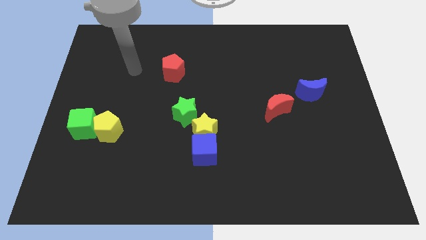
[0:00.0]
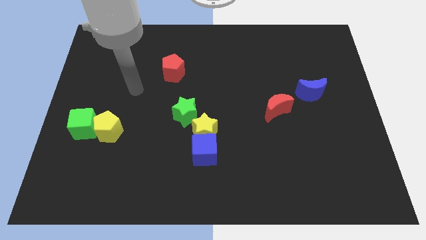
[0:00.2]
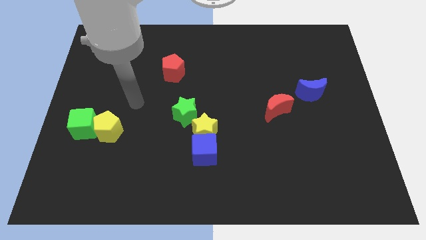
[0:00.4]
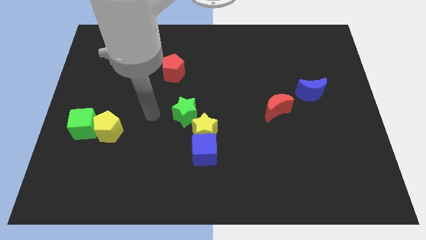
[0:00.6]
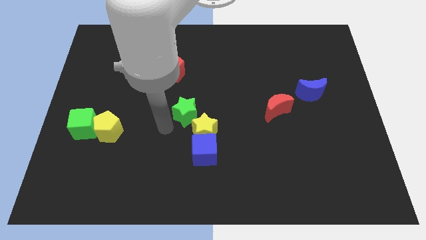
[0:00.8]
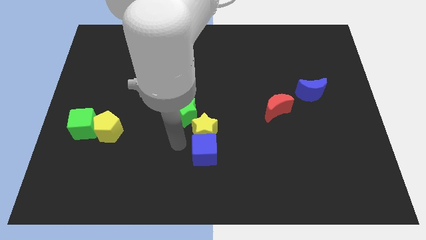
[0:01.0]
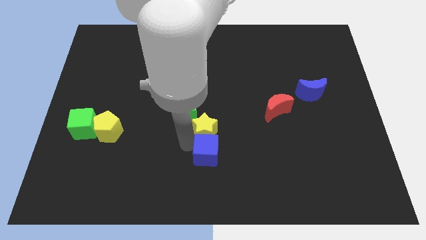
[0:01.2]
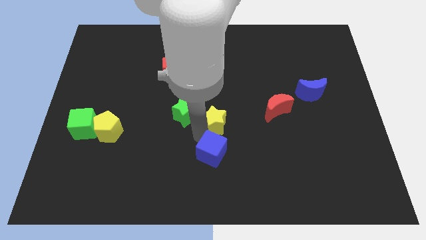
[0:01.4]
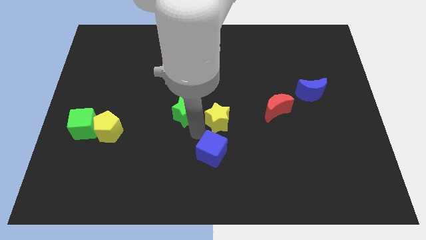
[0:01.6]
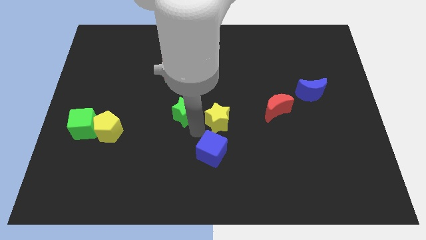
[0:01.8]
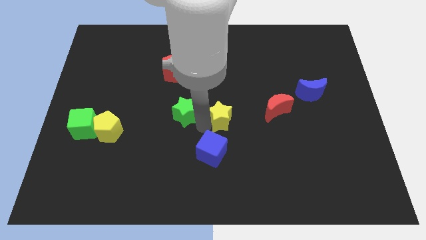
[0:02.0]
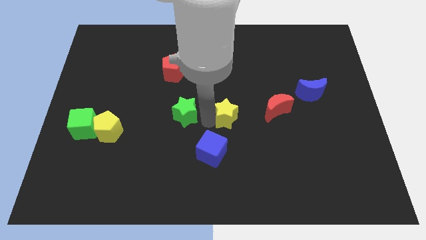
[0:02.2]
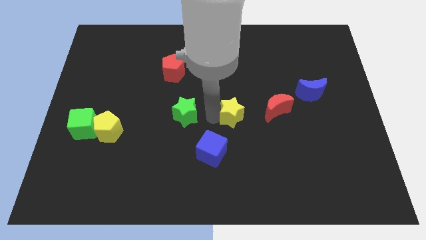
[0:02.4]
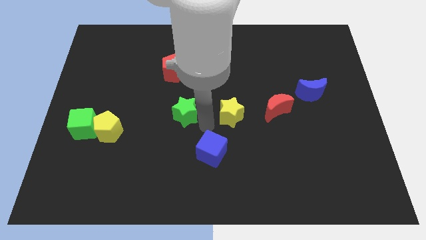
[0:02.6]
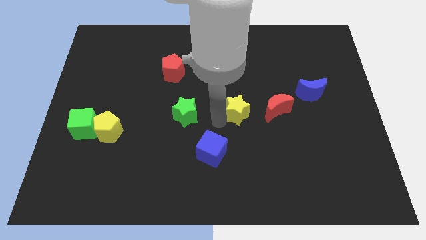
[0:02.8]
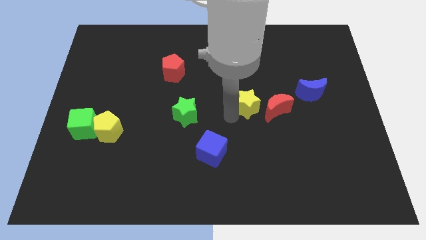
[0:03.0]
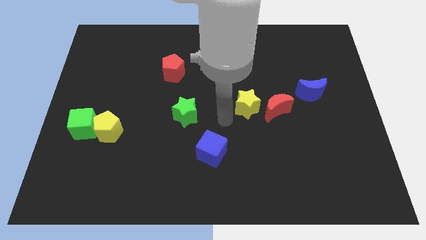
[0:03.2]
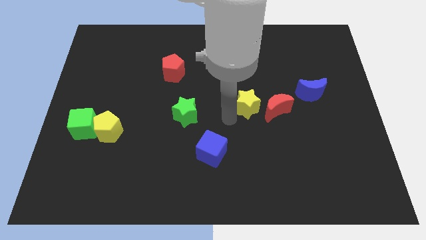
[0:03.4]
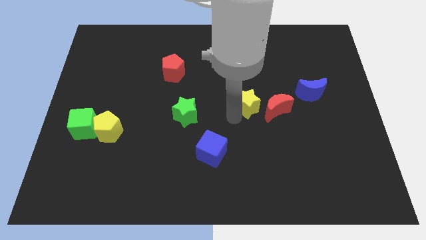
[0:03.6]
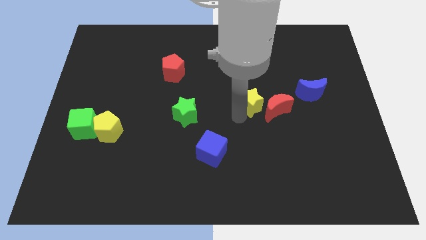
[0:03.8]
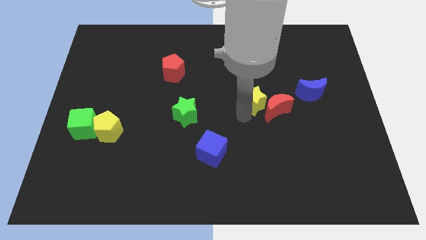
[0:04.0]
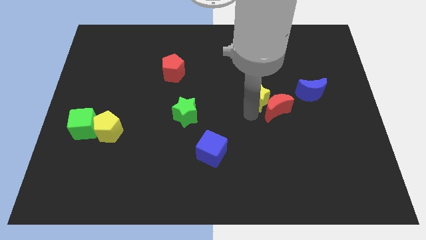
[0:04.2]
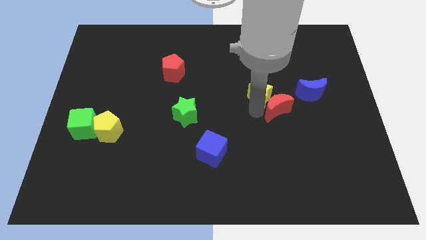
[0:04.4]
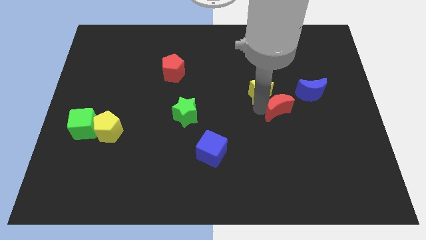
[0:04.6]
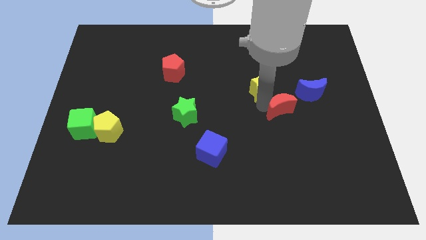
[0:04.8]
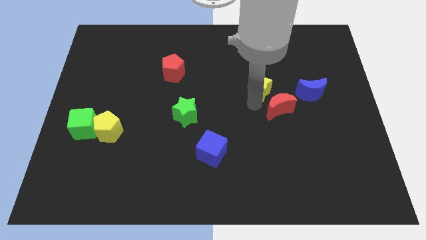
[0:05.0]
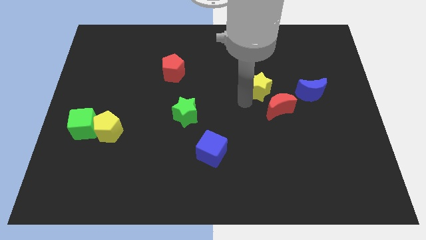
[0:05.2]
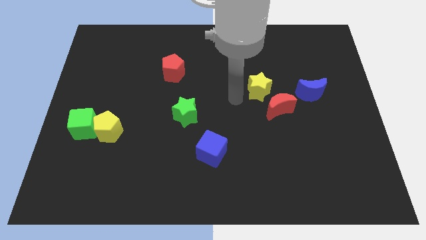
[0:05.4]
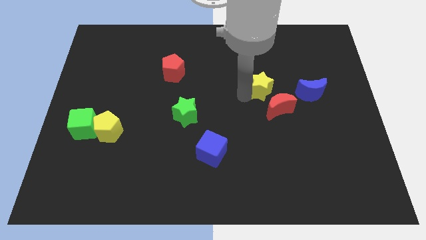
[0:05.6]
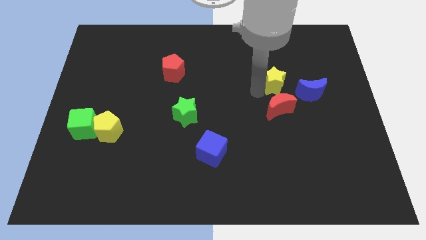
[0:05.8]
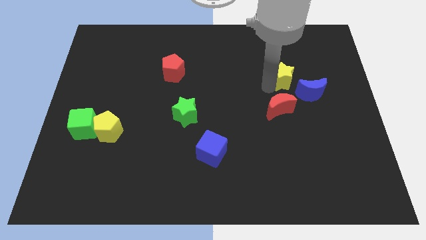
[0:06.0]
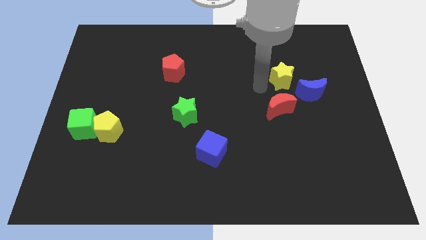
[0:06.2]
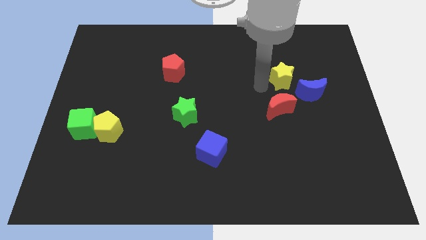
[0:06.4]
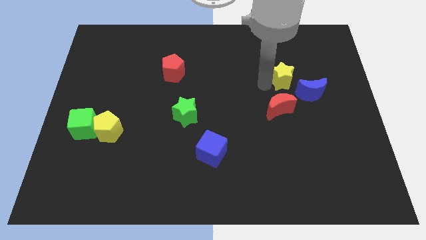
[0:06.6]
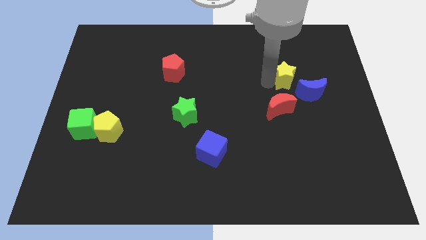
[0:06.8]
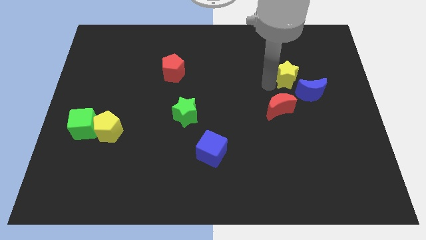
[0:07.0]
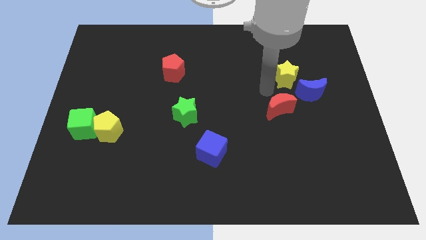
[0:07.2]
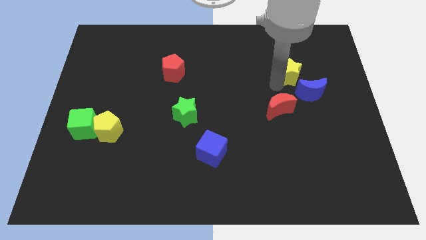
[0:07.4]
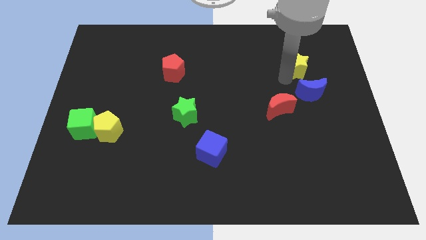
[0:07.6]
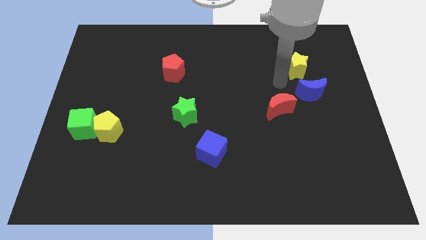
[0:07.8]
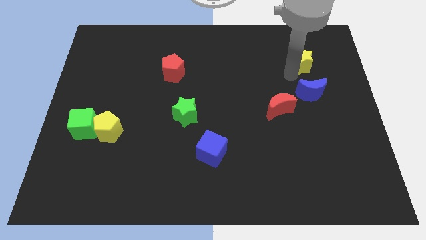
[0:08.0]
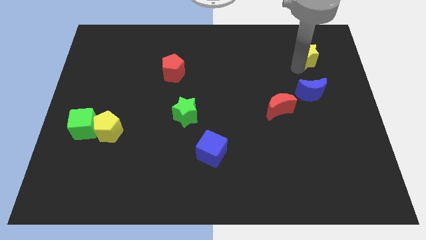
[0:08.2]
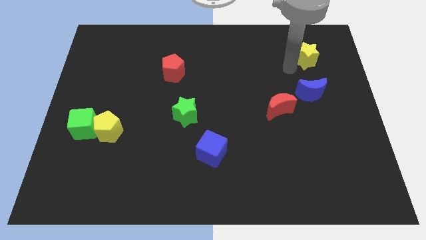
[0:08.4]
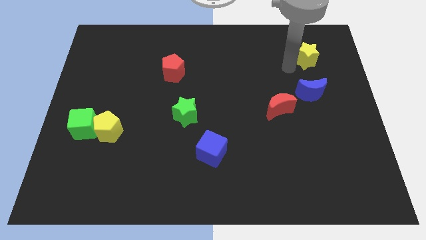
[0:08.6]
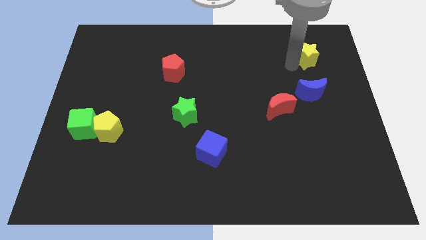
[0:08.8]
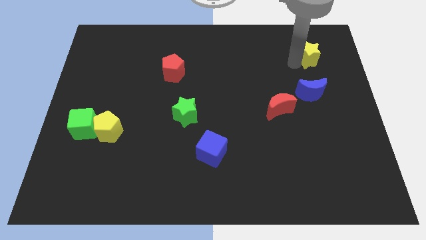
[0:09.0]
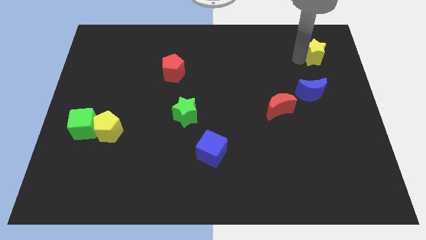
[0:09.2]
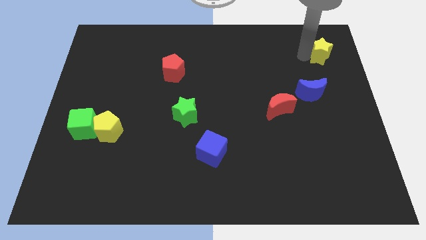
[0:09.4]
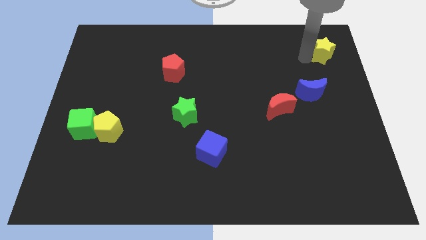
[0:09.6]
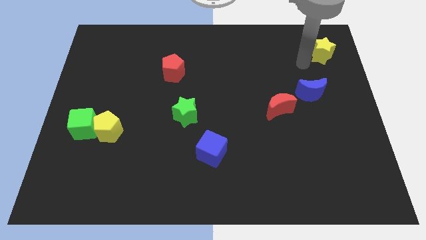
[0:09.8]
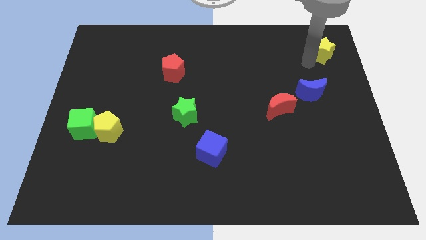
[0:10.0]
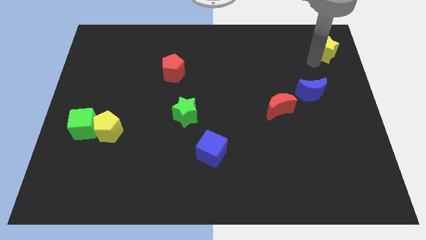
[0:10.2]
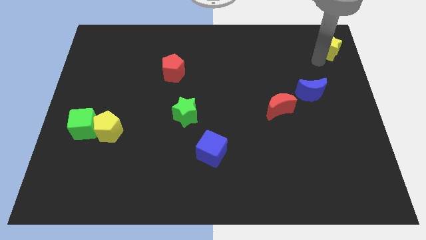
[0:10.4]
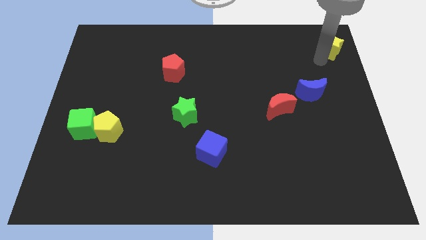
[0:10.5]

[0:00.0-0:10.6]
put the yellow star to the top right of the board

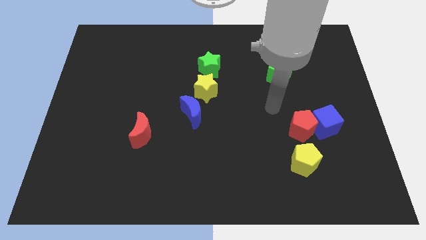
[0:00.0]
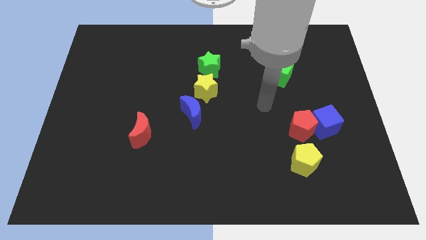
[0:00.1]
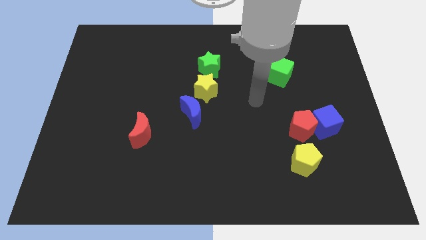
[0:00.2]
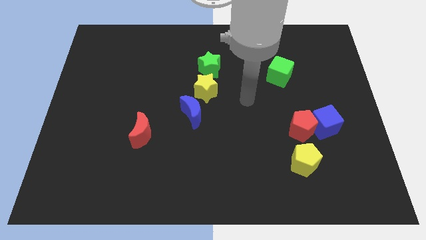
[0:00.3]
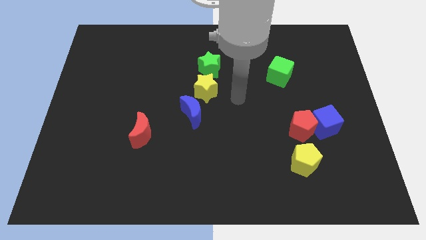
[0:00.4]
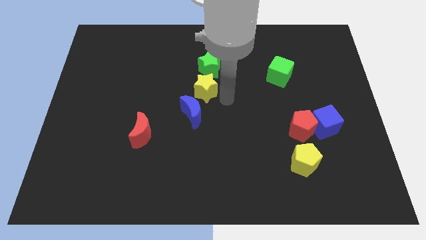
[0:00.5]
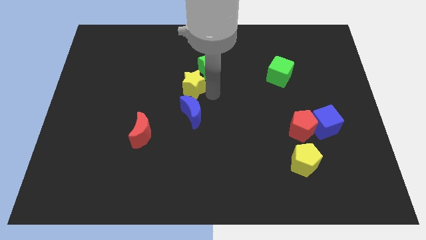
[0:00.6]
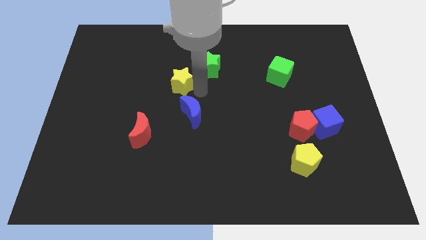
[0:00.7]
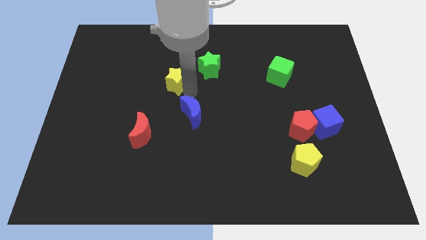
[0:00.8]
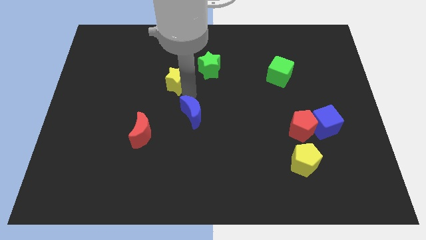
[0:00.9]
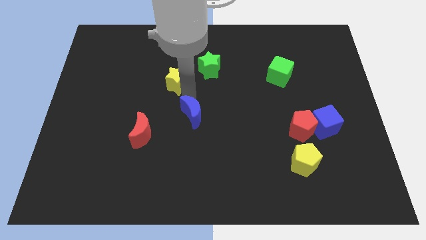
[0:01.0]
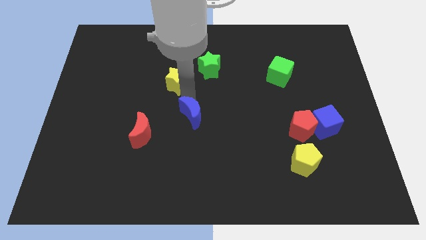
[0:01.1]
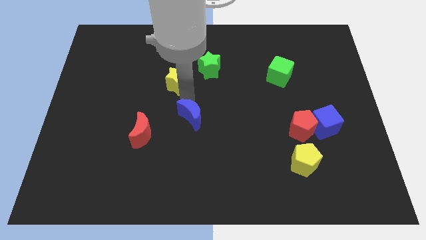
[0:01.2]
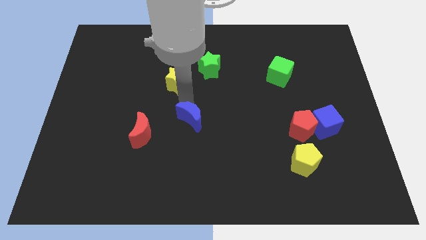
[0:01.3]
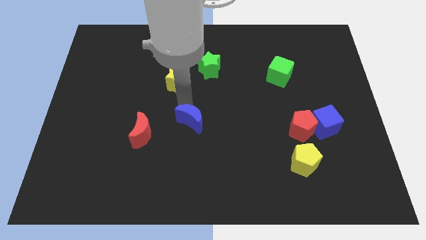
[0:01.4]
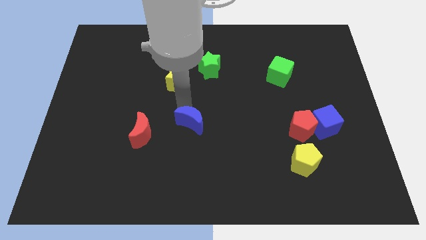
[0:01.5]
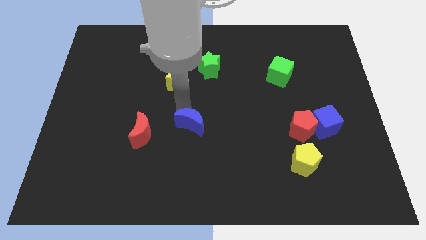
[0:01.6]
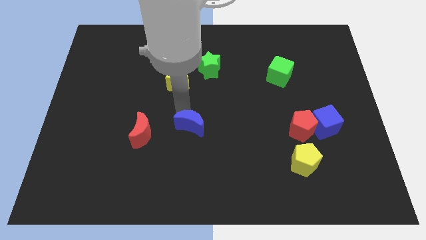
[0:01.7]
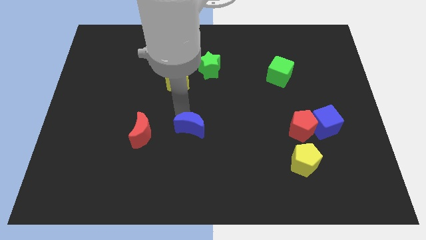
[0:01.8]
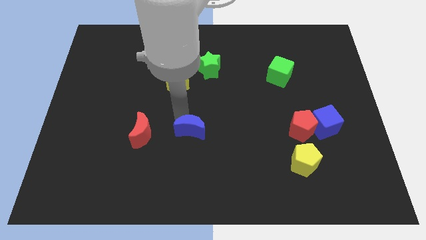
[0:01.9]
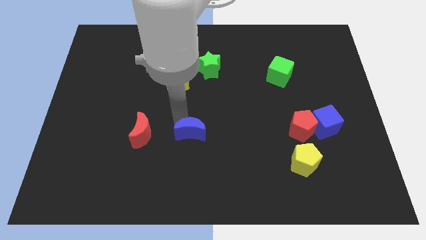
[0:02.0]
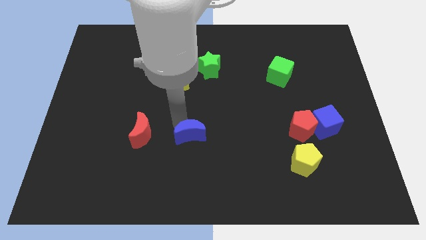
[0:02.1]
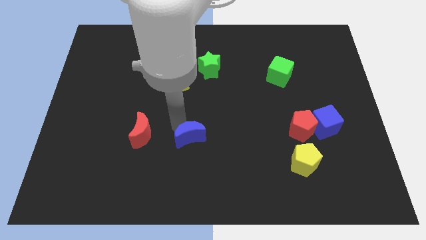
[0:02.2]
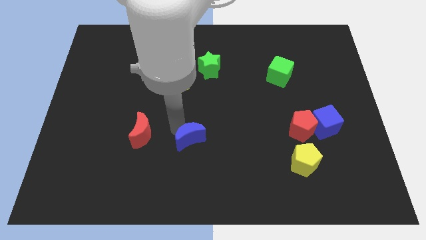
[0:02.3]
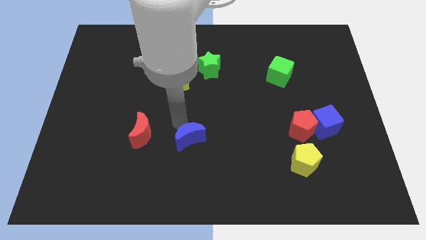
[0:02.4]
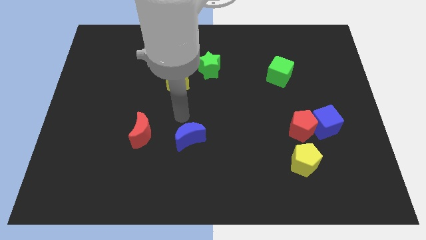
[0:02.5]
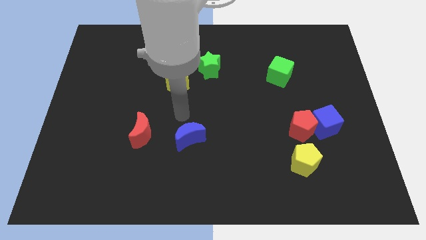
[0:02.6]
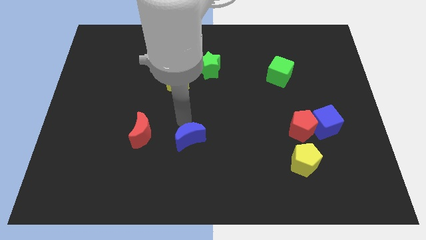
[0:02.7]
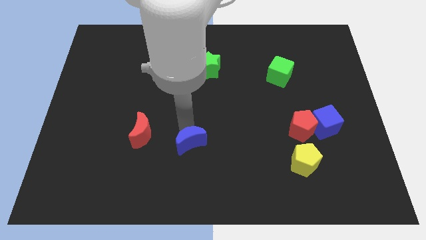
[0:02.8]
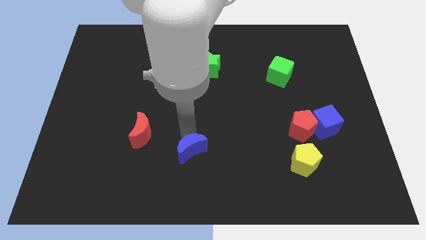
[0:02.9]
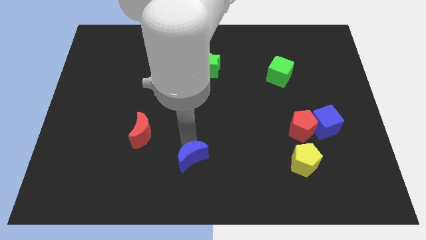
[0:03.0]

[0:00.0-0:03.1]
slide the blue moon to the bottom side
